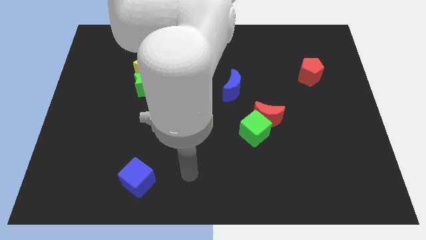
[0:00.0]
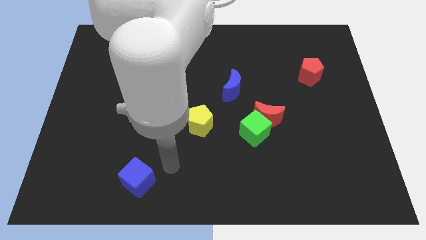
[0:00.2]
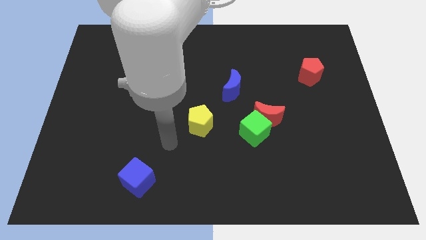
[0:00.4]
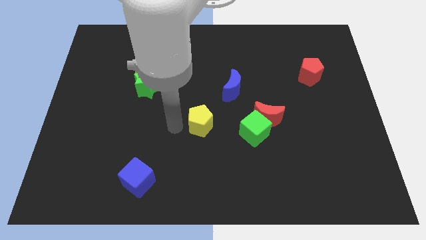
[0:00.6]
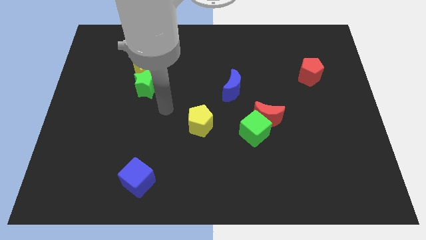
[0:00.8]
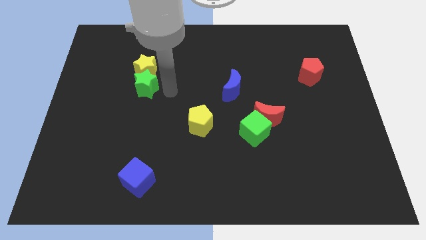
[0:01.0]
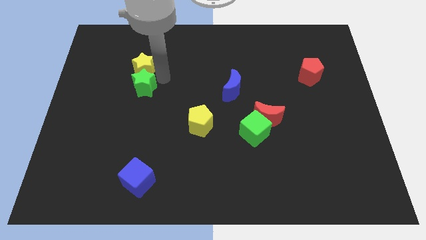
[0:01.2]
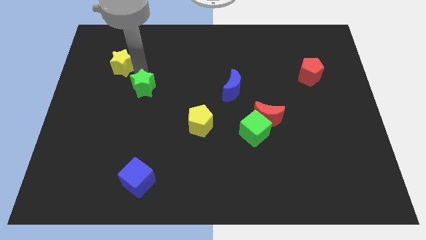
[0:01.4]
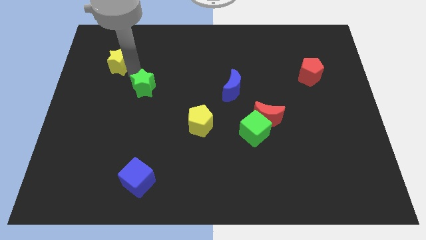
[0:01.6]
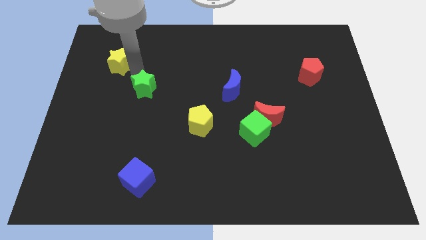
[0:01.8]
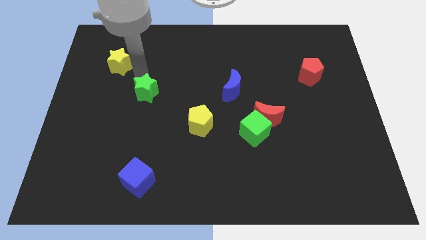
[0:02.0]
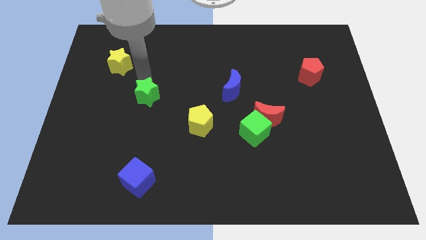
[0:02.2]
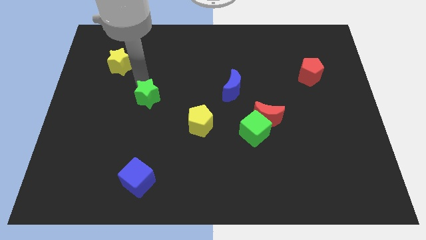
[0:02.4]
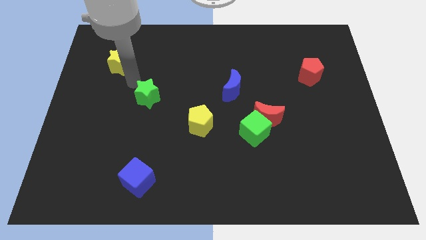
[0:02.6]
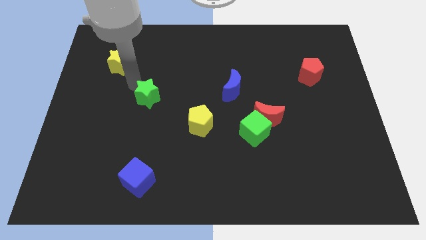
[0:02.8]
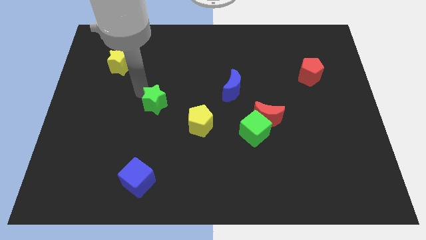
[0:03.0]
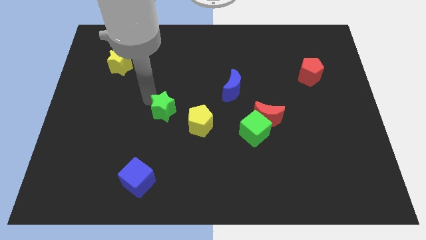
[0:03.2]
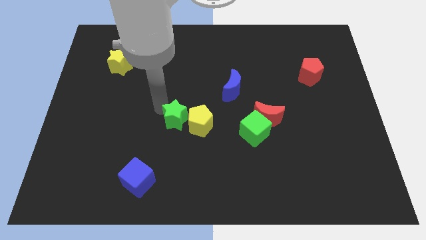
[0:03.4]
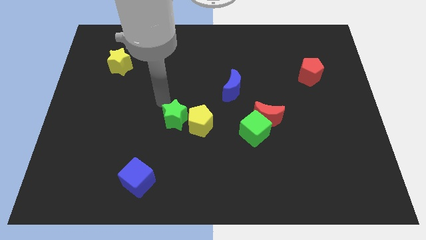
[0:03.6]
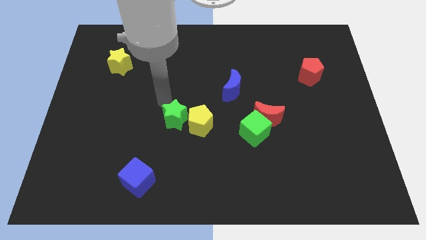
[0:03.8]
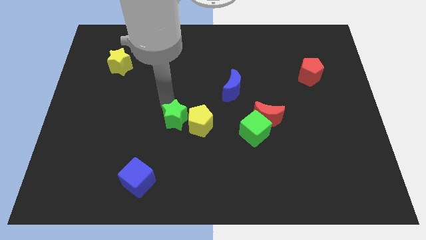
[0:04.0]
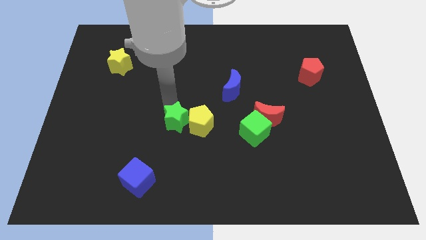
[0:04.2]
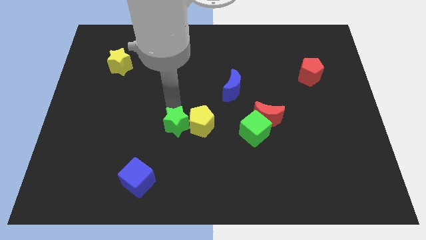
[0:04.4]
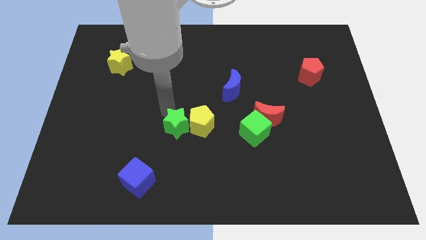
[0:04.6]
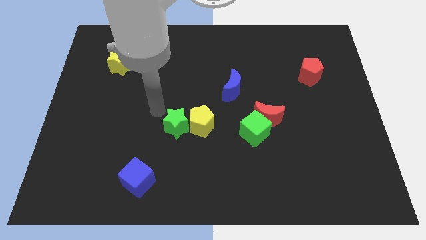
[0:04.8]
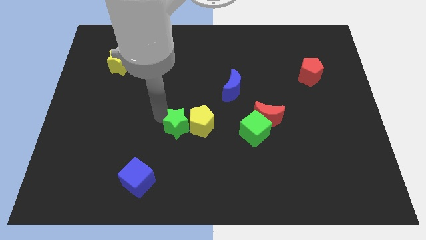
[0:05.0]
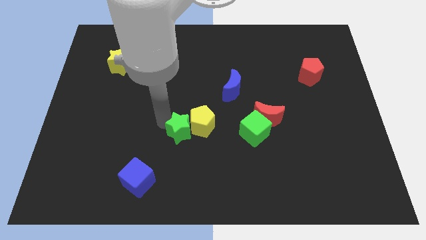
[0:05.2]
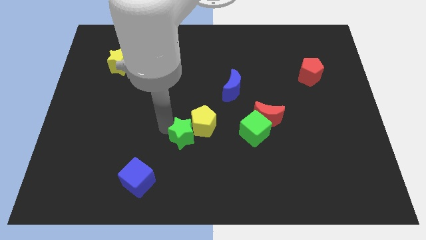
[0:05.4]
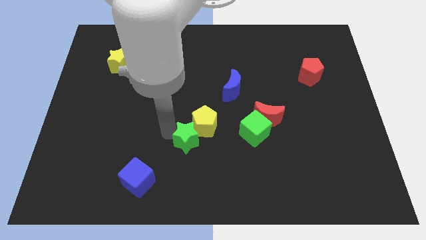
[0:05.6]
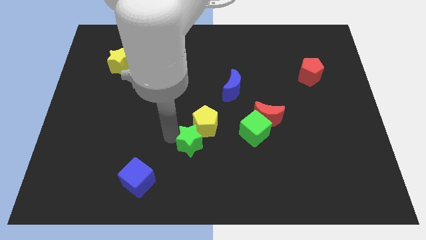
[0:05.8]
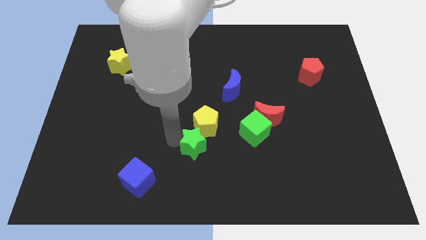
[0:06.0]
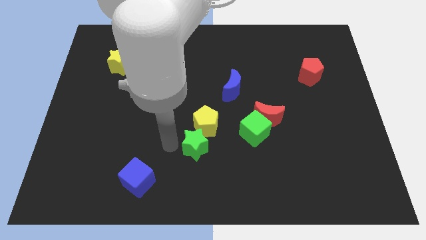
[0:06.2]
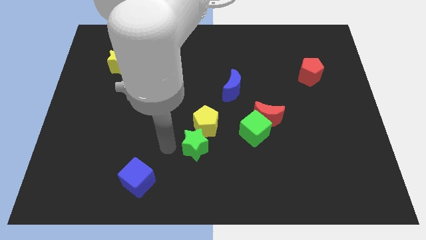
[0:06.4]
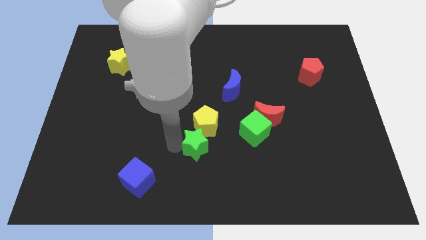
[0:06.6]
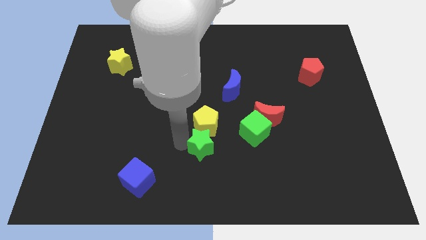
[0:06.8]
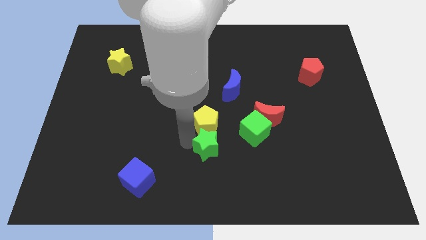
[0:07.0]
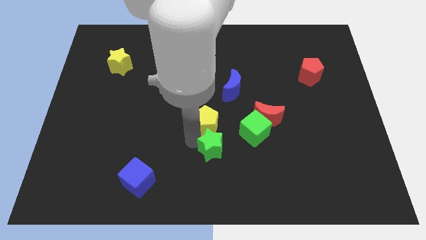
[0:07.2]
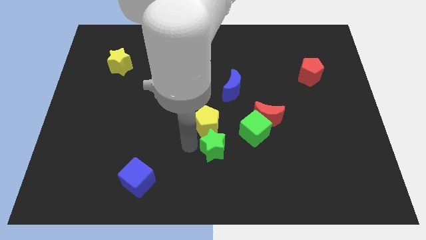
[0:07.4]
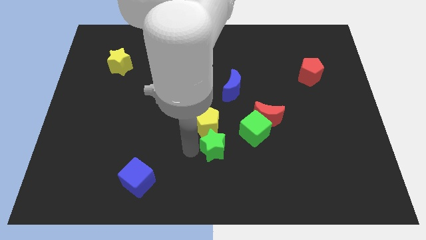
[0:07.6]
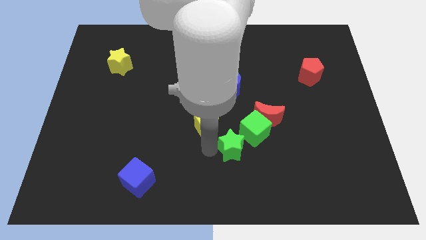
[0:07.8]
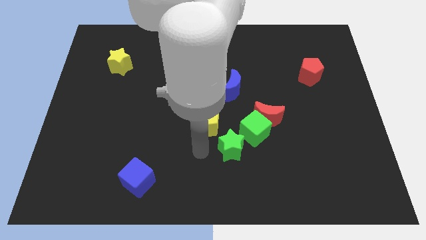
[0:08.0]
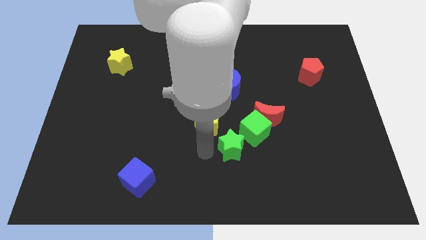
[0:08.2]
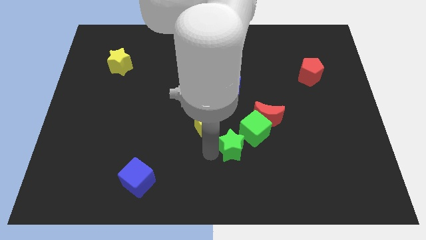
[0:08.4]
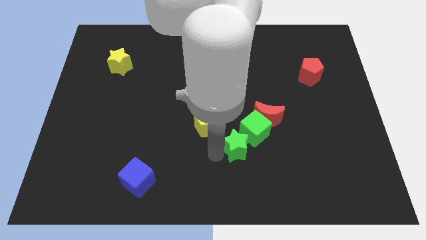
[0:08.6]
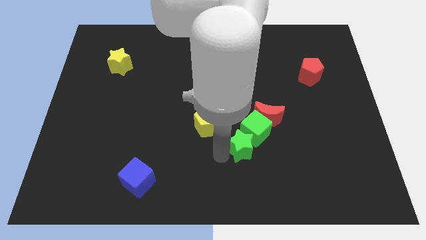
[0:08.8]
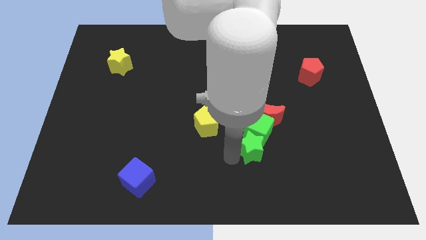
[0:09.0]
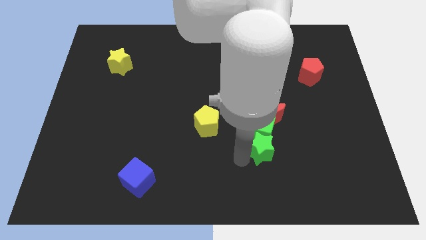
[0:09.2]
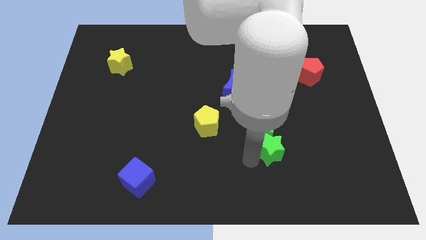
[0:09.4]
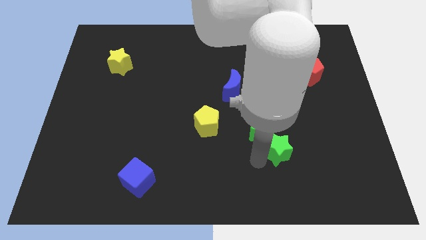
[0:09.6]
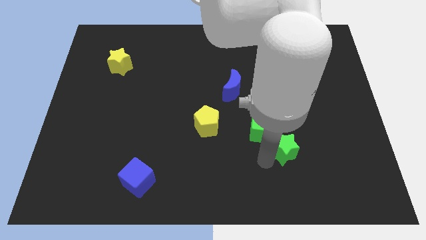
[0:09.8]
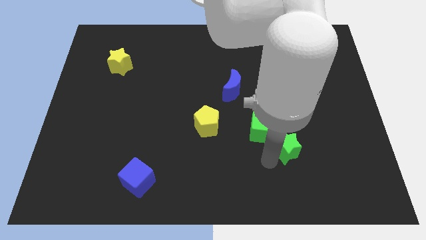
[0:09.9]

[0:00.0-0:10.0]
put the green star diagonally down and to the right of the red moon

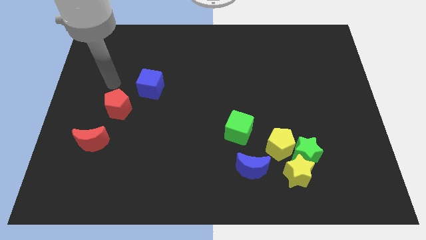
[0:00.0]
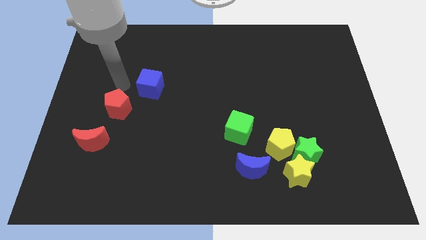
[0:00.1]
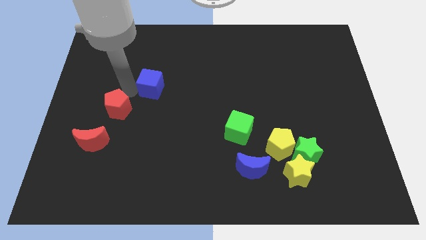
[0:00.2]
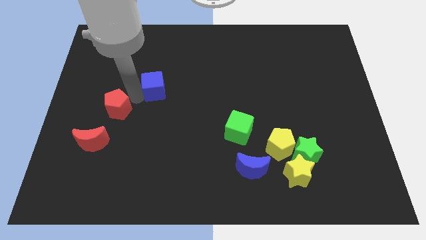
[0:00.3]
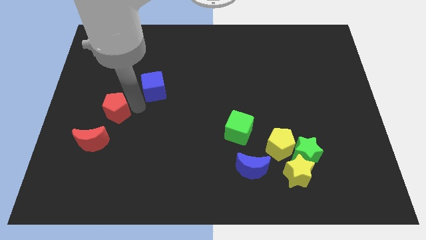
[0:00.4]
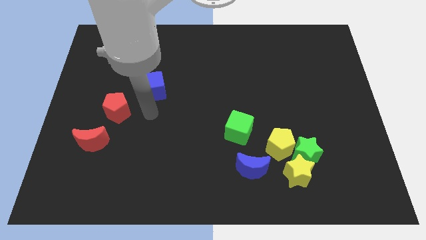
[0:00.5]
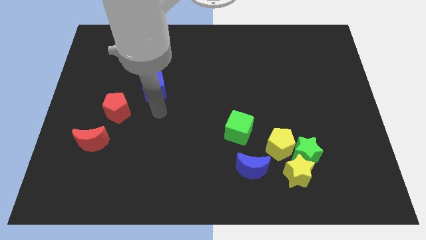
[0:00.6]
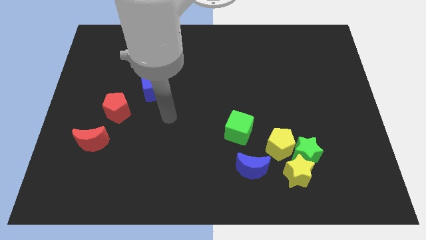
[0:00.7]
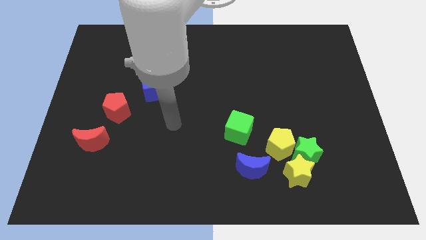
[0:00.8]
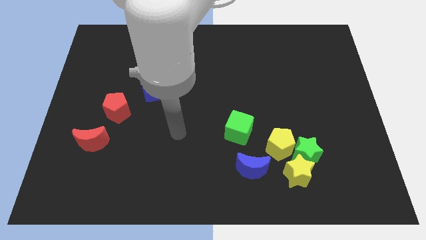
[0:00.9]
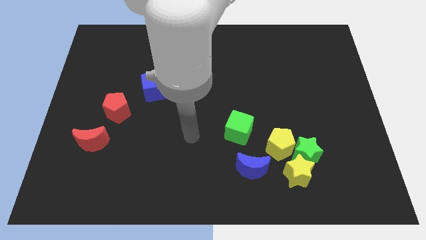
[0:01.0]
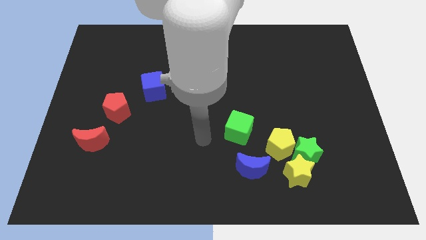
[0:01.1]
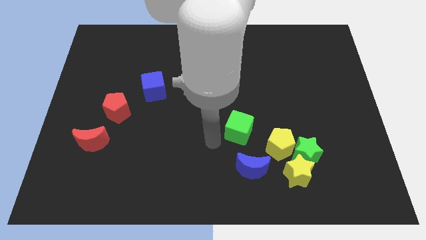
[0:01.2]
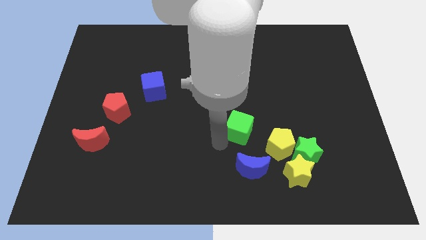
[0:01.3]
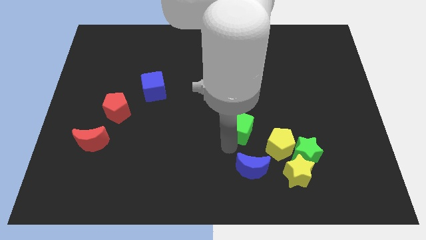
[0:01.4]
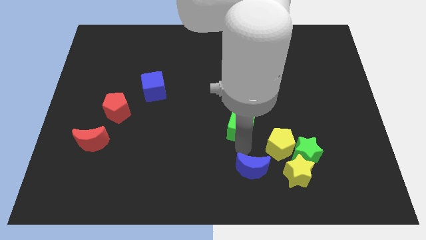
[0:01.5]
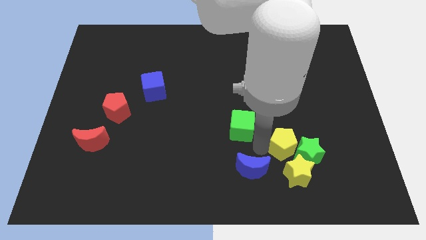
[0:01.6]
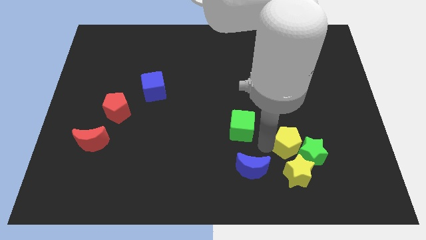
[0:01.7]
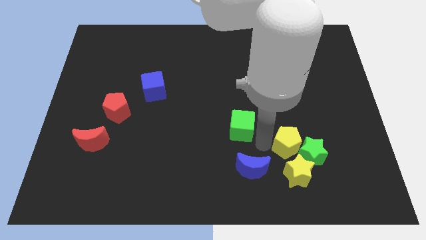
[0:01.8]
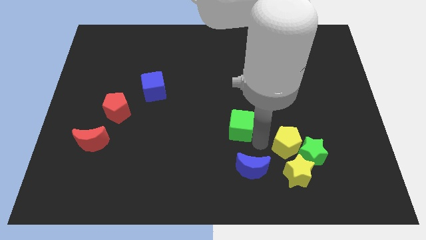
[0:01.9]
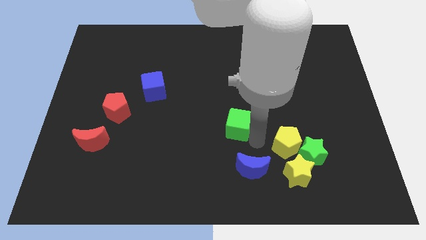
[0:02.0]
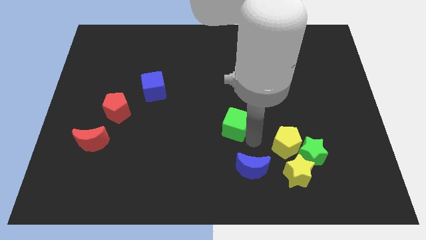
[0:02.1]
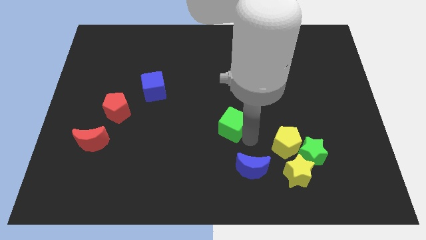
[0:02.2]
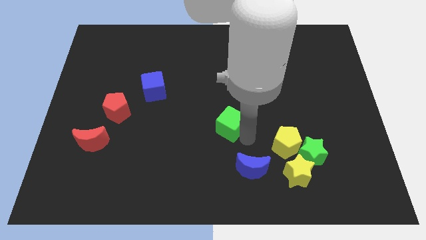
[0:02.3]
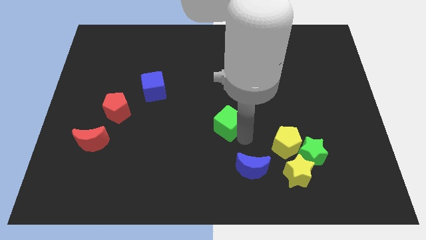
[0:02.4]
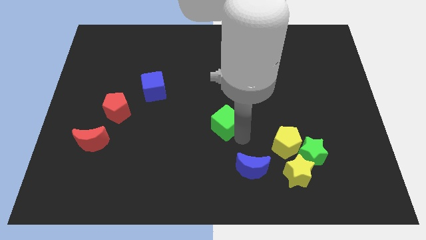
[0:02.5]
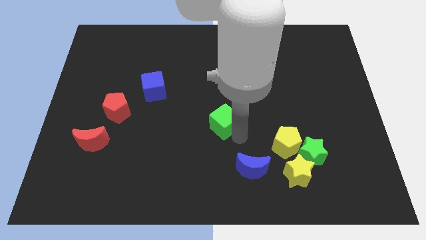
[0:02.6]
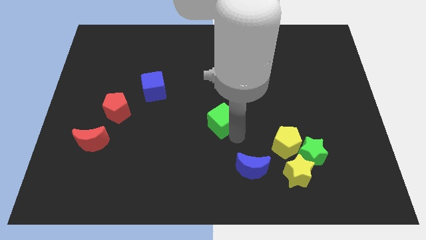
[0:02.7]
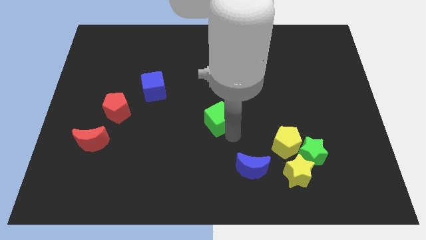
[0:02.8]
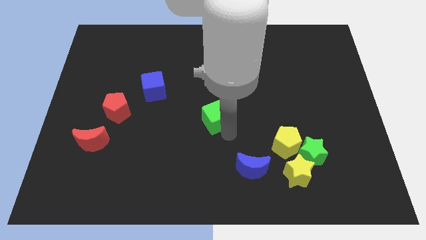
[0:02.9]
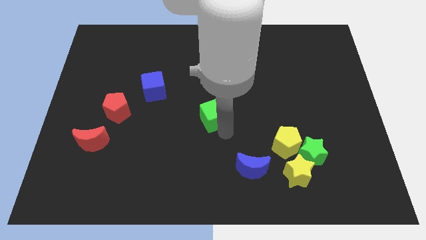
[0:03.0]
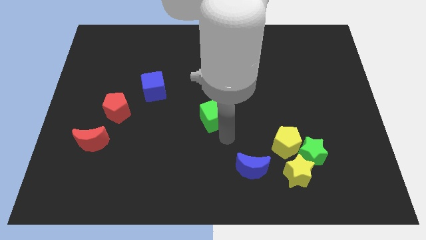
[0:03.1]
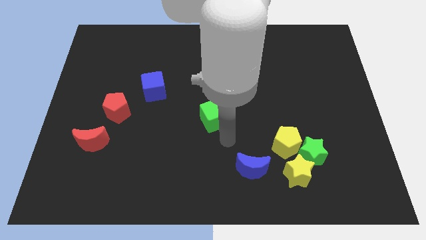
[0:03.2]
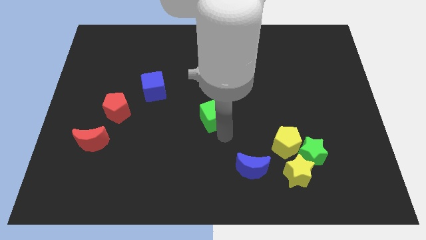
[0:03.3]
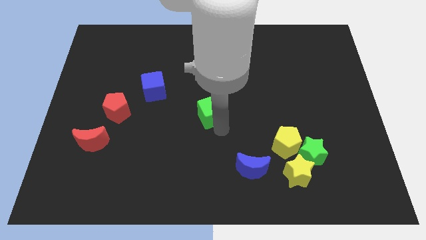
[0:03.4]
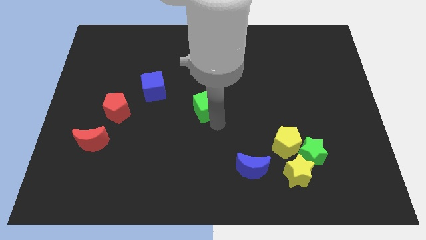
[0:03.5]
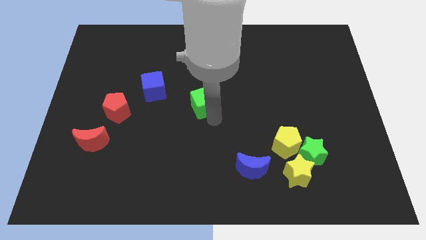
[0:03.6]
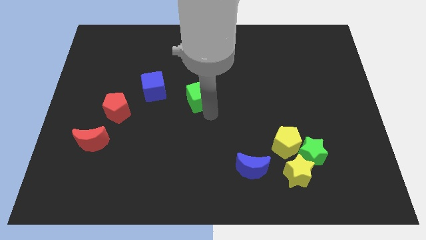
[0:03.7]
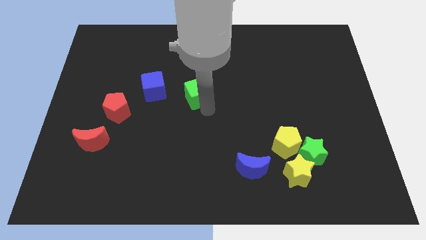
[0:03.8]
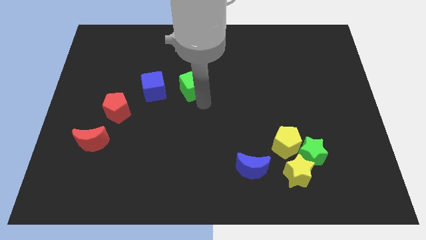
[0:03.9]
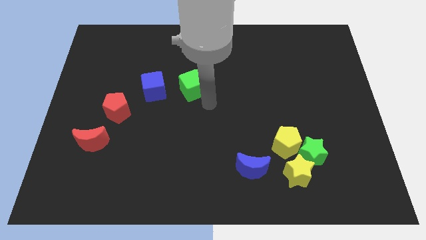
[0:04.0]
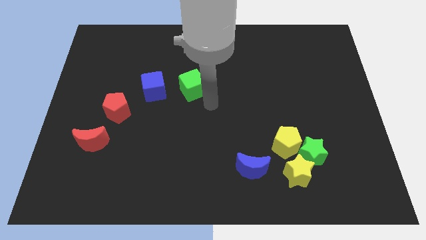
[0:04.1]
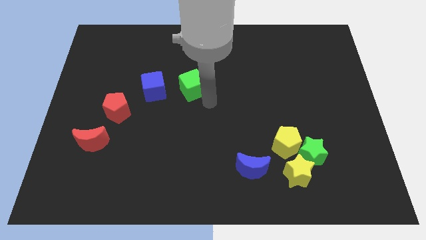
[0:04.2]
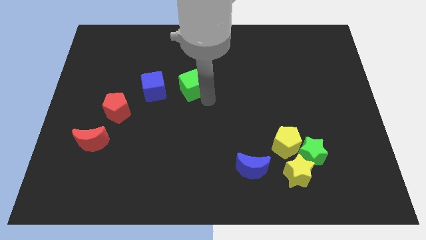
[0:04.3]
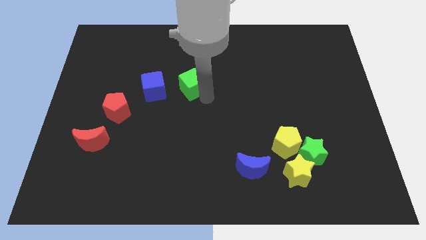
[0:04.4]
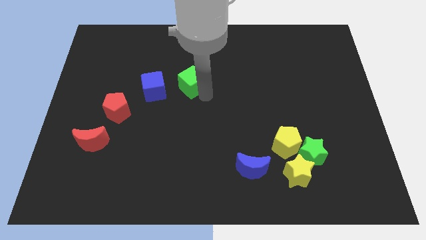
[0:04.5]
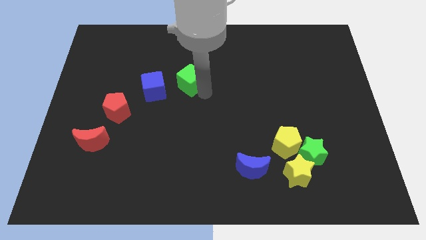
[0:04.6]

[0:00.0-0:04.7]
move the green cube diagonally up and to the right of the blue cube
